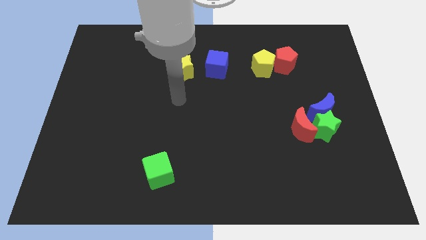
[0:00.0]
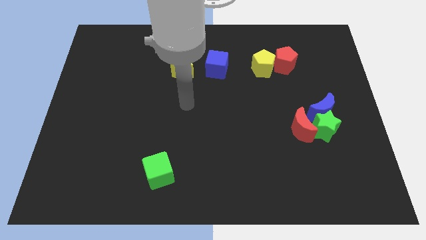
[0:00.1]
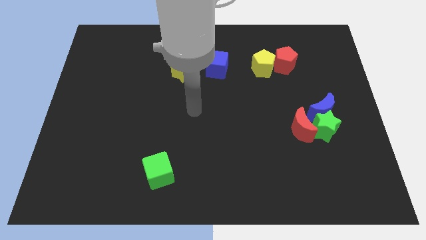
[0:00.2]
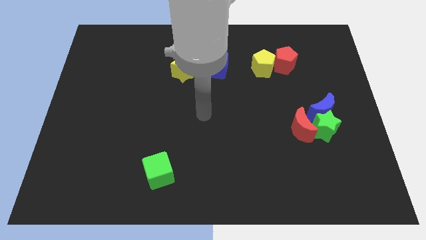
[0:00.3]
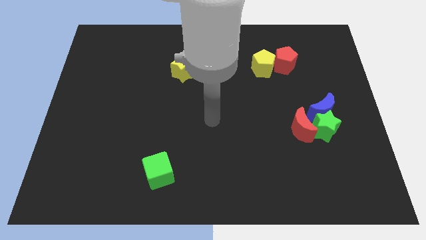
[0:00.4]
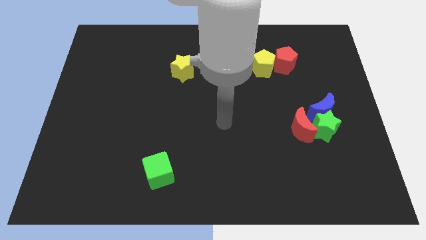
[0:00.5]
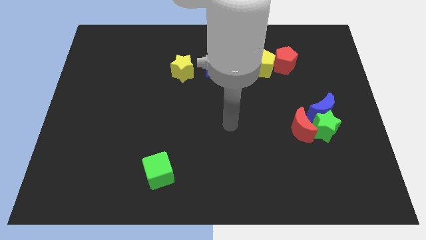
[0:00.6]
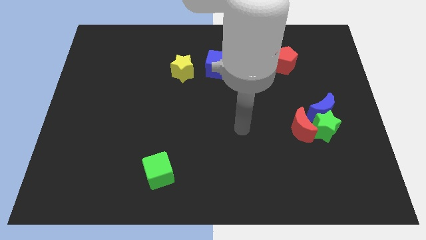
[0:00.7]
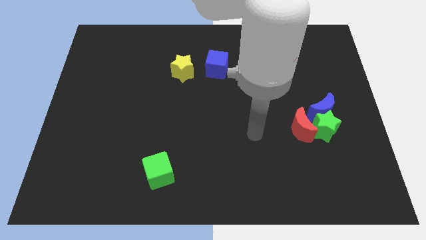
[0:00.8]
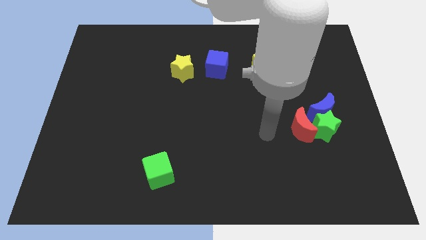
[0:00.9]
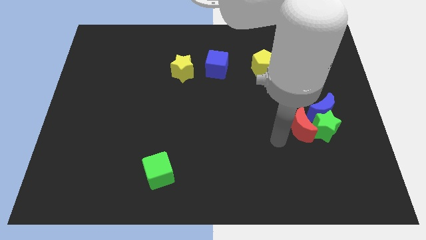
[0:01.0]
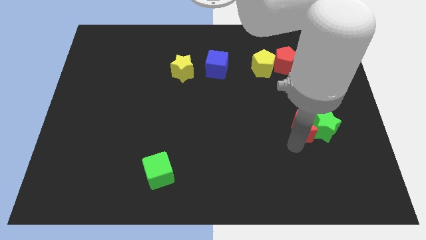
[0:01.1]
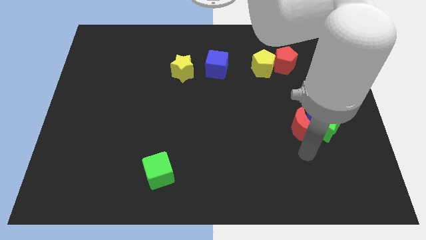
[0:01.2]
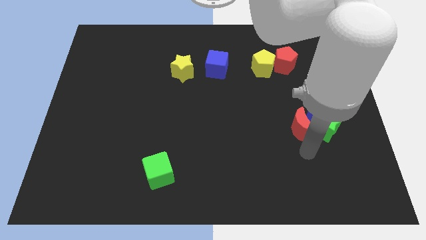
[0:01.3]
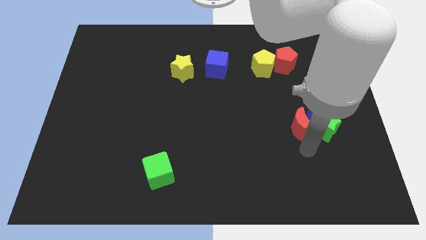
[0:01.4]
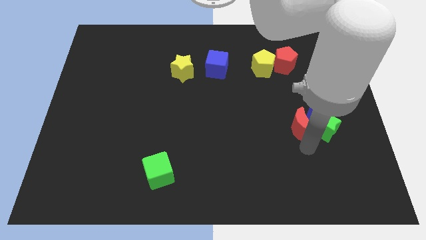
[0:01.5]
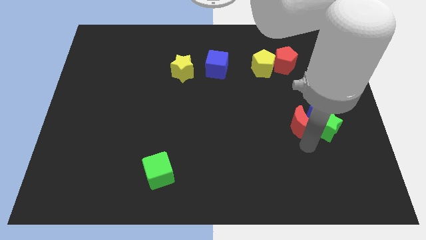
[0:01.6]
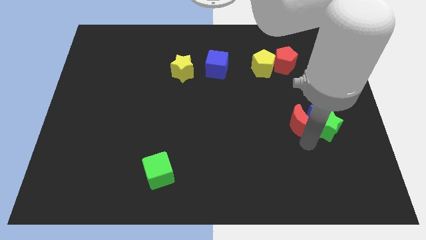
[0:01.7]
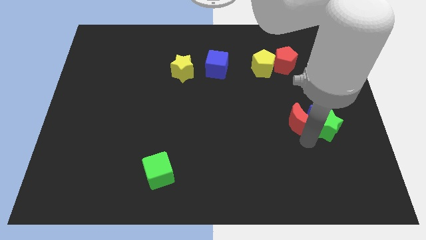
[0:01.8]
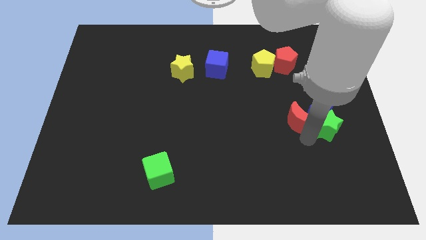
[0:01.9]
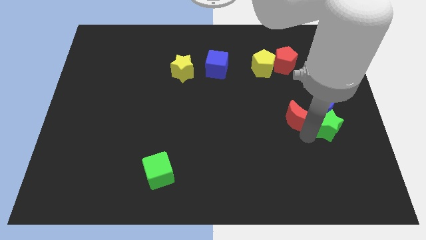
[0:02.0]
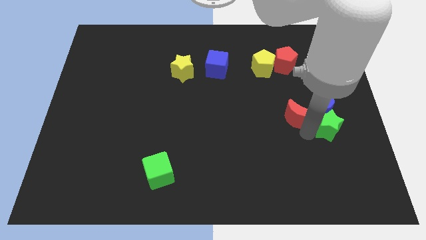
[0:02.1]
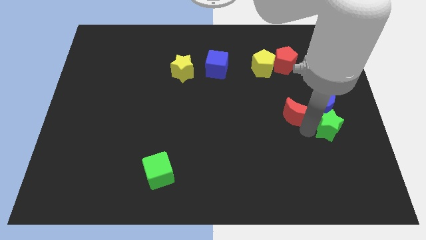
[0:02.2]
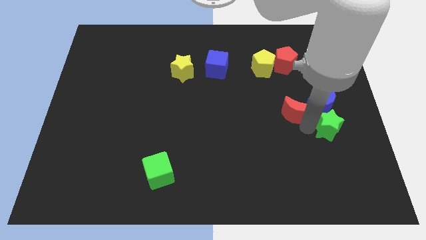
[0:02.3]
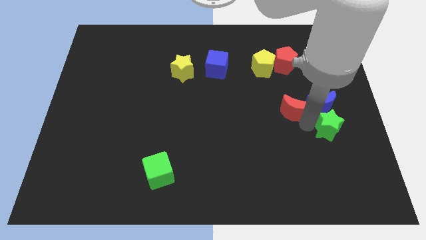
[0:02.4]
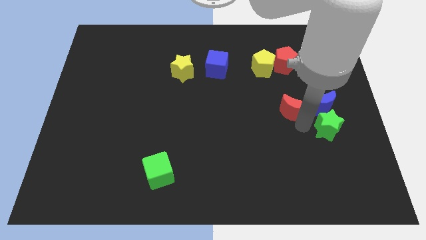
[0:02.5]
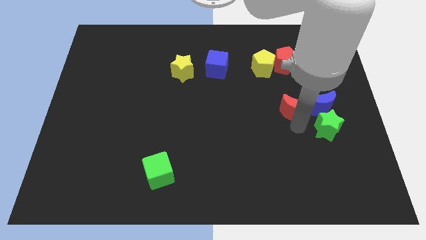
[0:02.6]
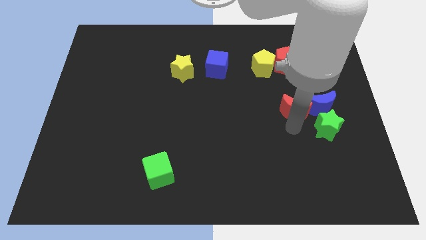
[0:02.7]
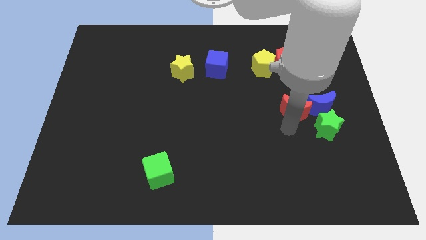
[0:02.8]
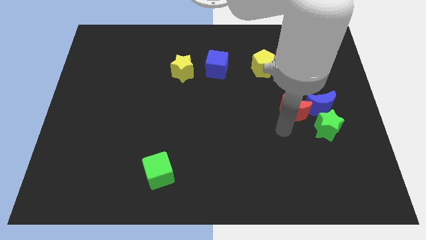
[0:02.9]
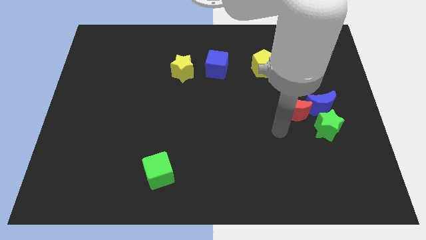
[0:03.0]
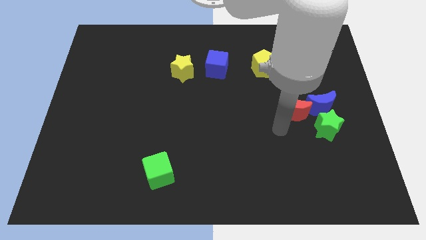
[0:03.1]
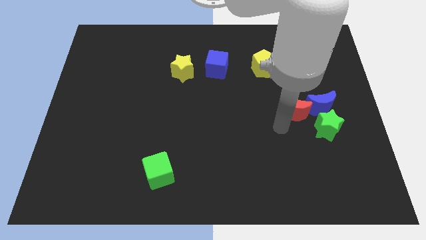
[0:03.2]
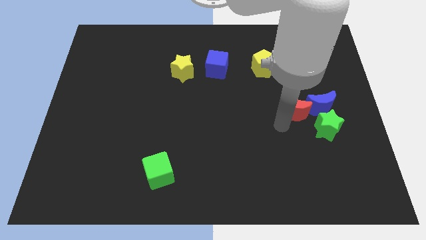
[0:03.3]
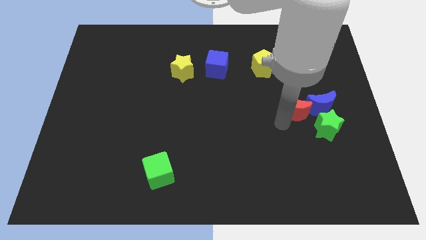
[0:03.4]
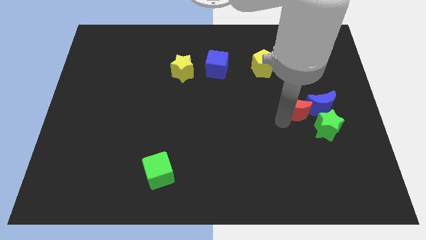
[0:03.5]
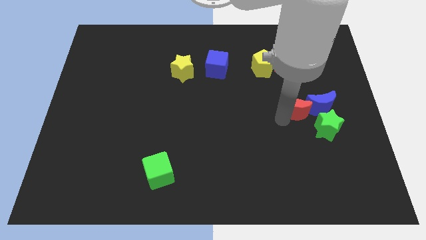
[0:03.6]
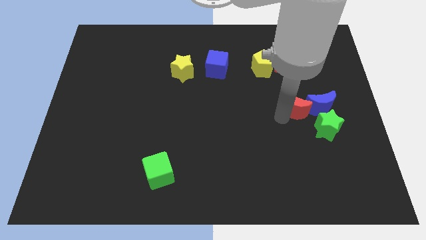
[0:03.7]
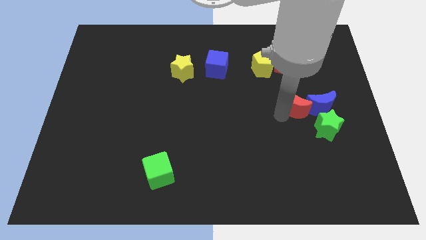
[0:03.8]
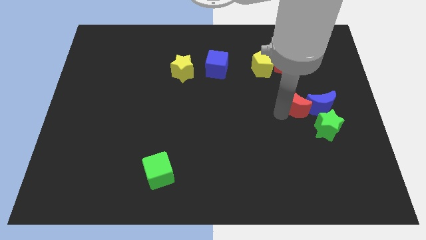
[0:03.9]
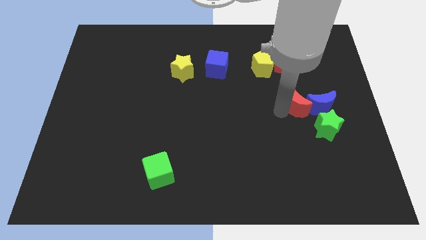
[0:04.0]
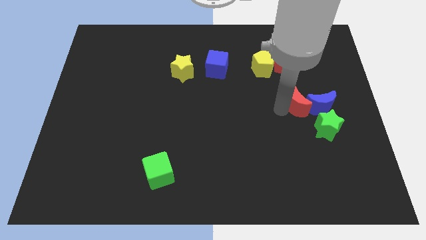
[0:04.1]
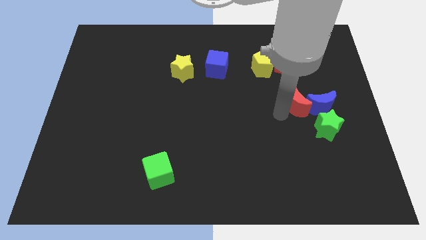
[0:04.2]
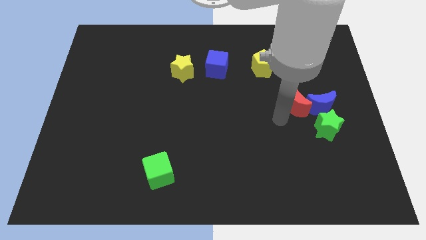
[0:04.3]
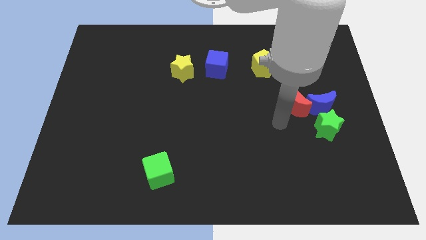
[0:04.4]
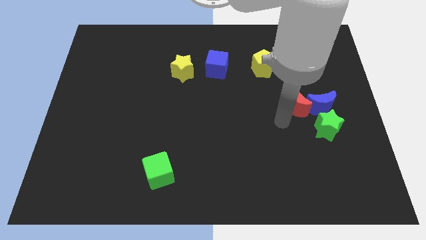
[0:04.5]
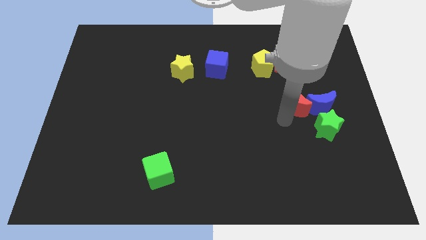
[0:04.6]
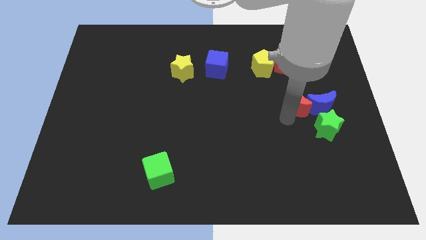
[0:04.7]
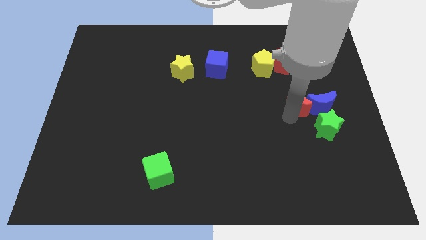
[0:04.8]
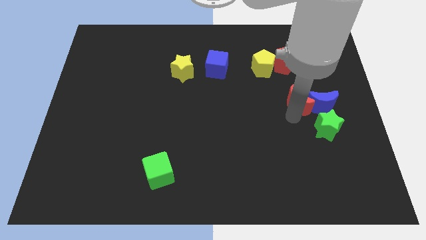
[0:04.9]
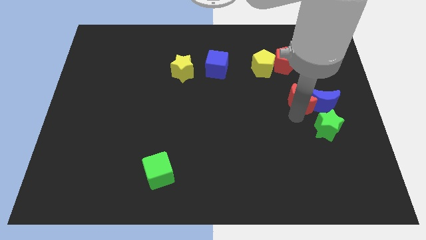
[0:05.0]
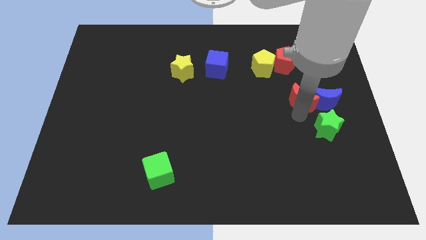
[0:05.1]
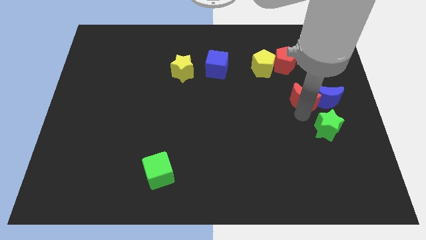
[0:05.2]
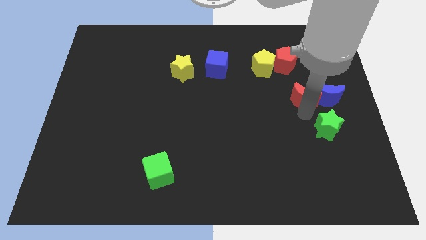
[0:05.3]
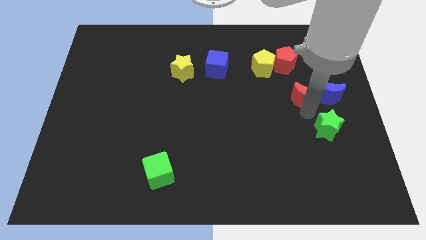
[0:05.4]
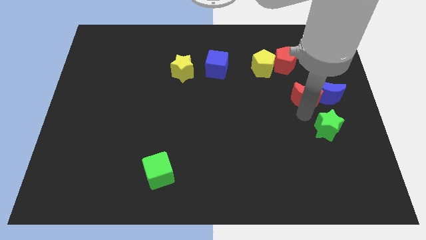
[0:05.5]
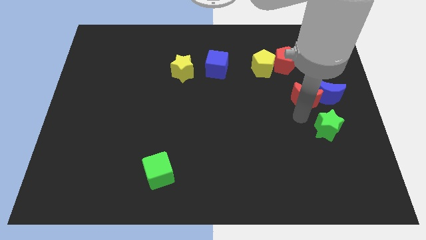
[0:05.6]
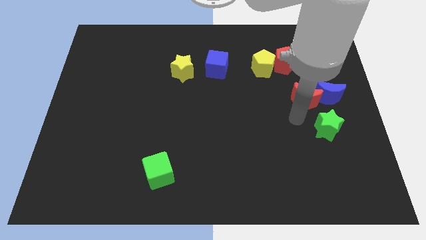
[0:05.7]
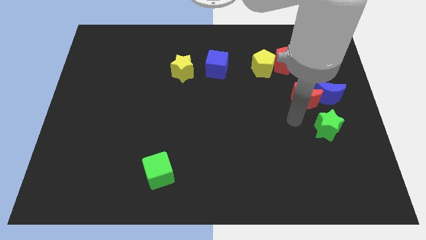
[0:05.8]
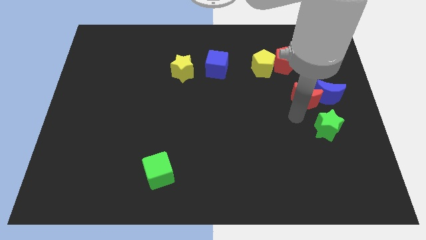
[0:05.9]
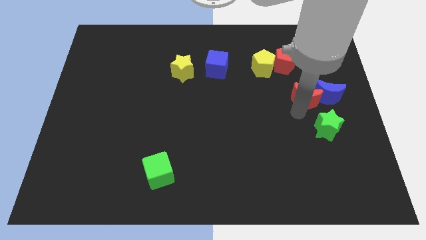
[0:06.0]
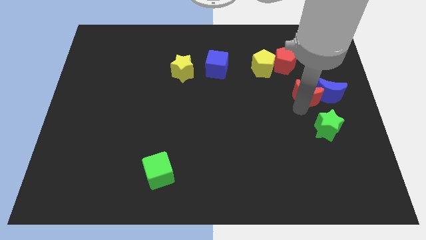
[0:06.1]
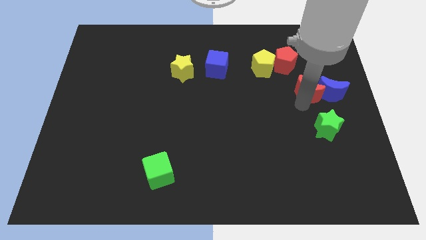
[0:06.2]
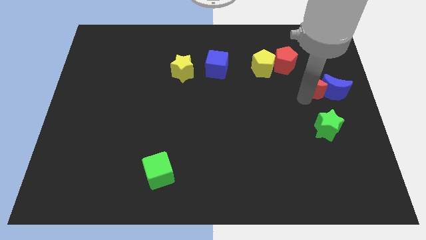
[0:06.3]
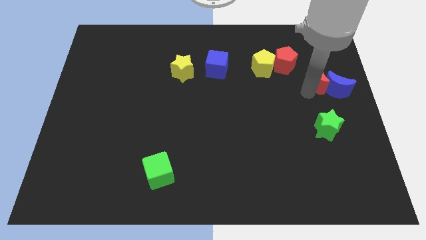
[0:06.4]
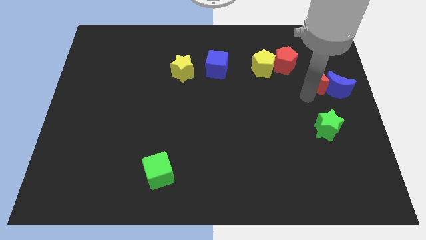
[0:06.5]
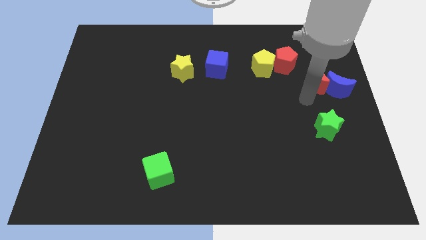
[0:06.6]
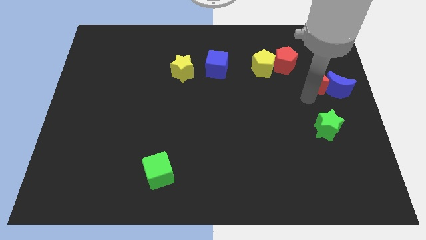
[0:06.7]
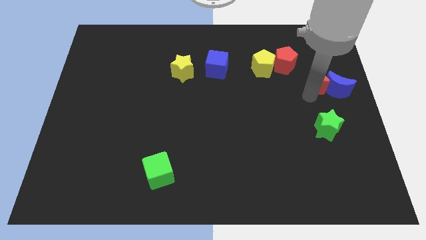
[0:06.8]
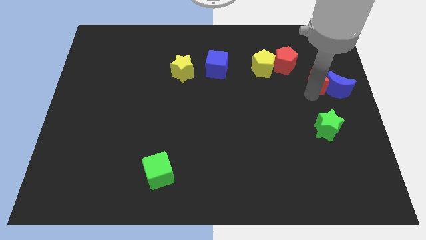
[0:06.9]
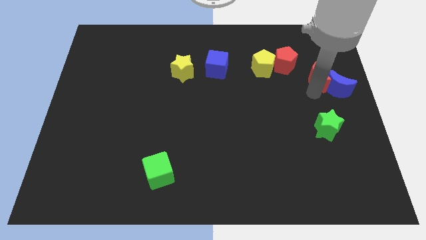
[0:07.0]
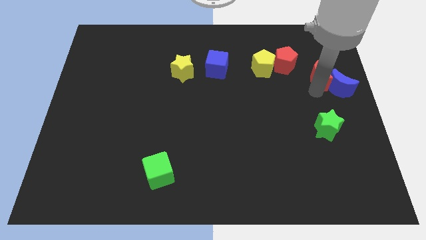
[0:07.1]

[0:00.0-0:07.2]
slide the red moon right of the red pentagon
